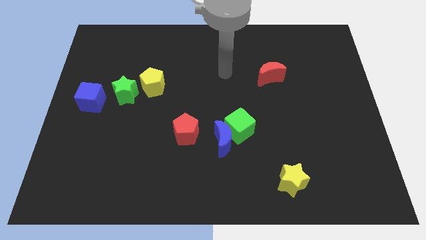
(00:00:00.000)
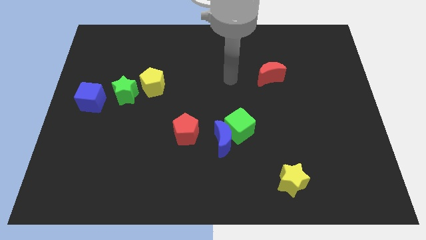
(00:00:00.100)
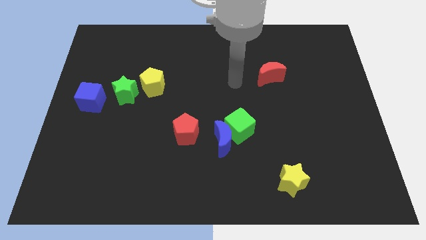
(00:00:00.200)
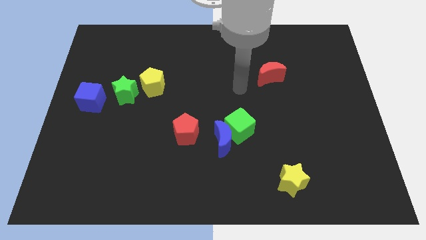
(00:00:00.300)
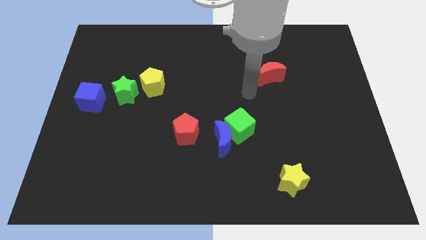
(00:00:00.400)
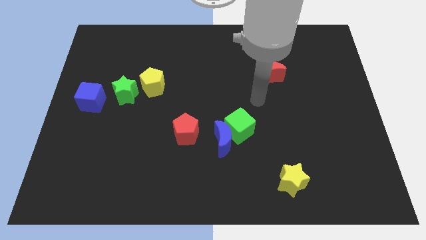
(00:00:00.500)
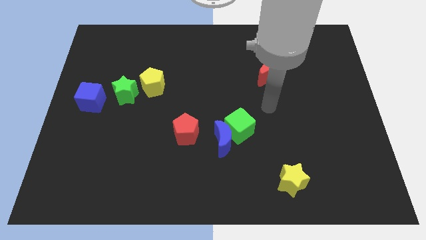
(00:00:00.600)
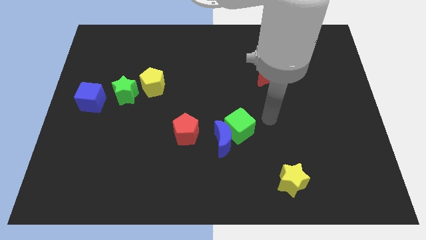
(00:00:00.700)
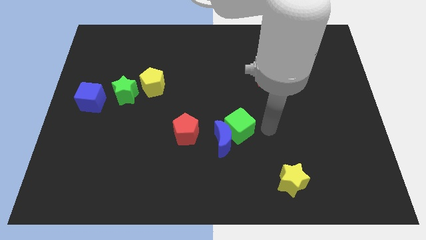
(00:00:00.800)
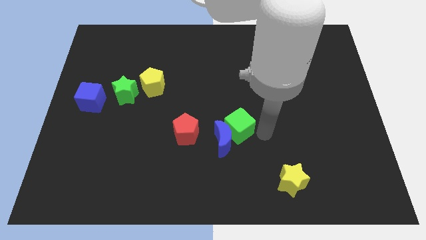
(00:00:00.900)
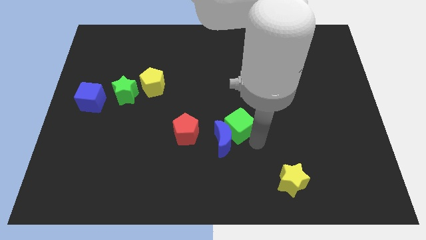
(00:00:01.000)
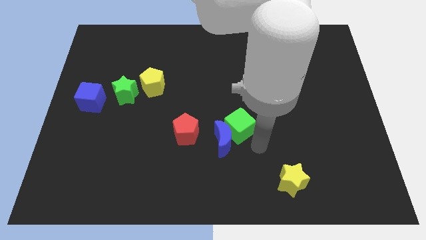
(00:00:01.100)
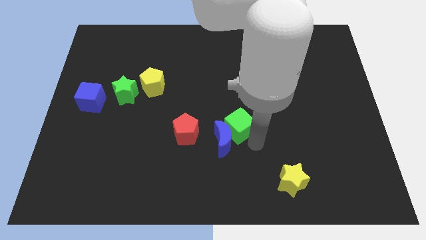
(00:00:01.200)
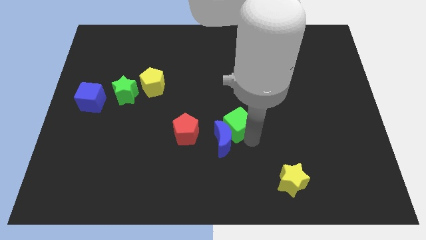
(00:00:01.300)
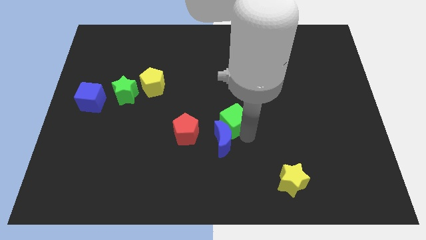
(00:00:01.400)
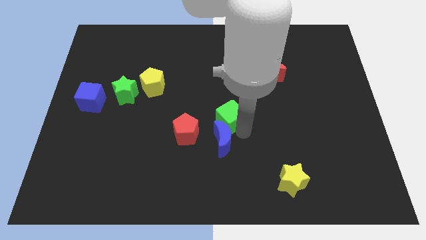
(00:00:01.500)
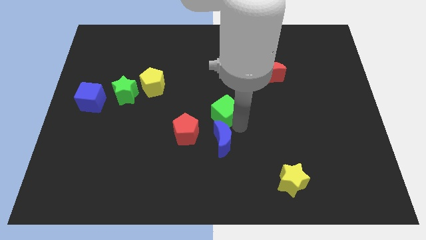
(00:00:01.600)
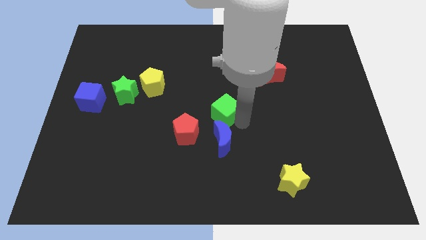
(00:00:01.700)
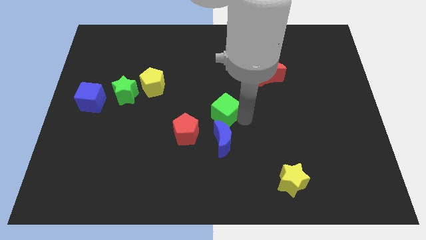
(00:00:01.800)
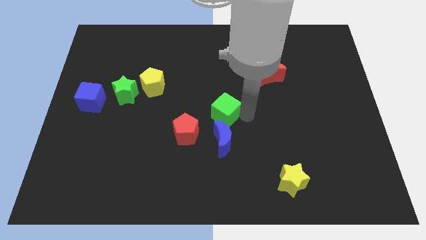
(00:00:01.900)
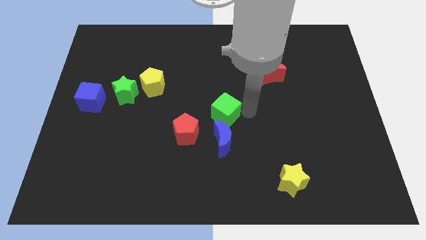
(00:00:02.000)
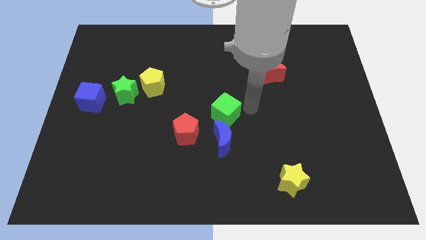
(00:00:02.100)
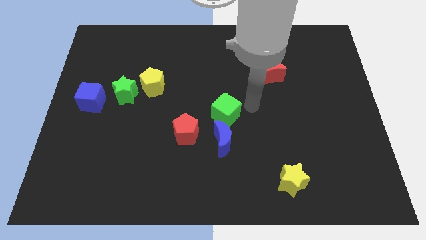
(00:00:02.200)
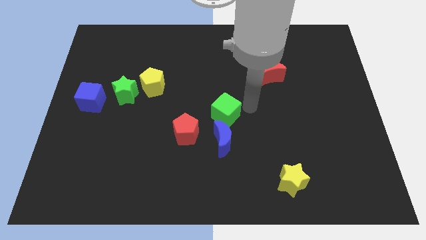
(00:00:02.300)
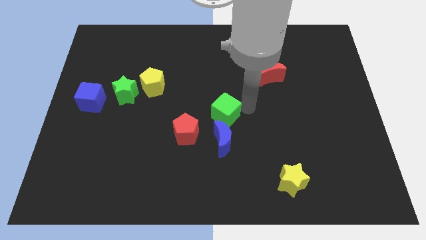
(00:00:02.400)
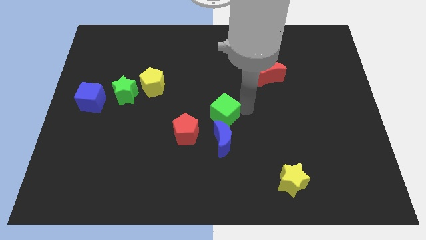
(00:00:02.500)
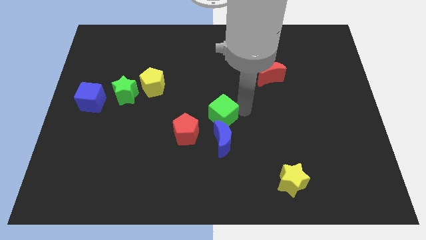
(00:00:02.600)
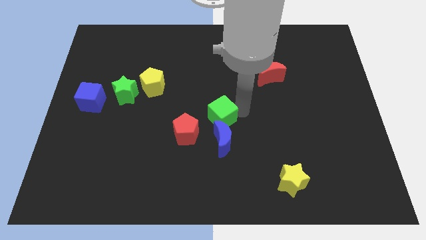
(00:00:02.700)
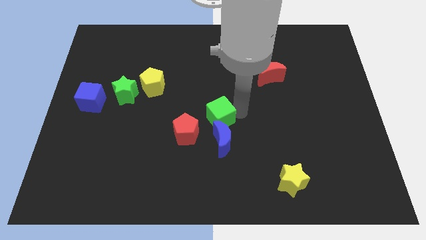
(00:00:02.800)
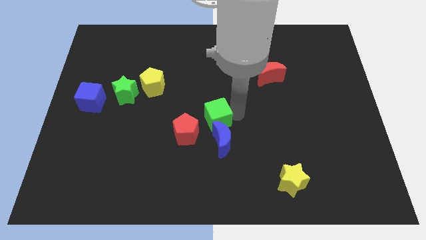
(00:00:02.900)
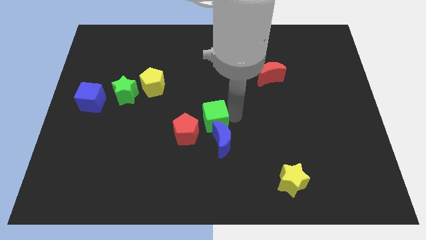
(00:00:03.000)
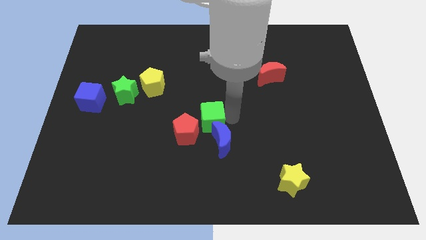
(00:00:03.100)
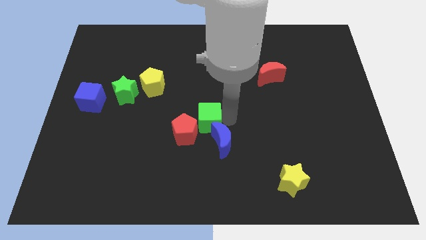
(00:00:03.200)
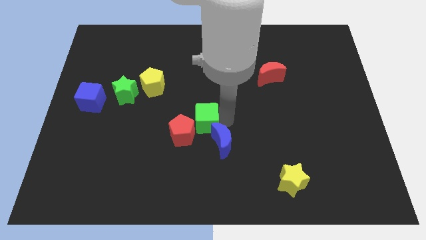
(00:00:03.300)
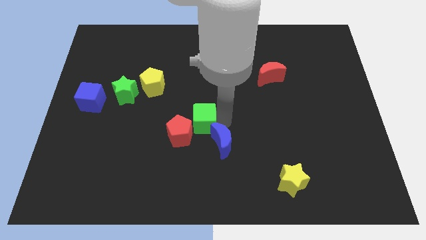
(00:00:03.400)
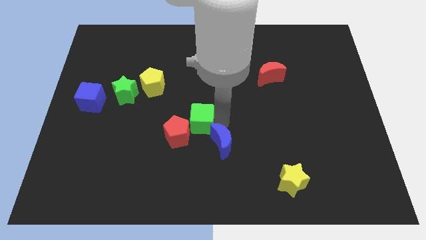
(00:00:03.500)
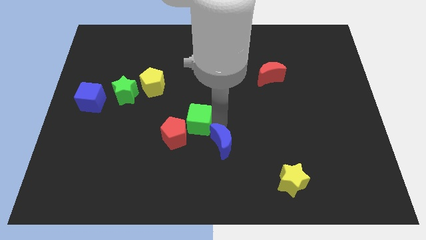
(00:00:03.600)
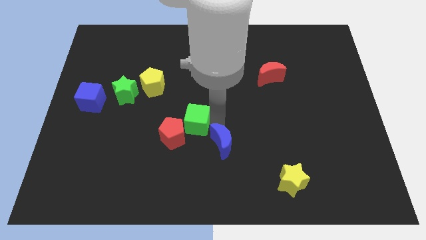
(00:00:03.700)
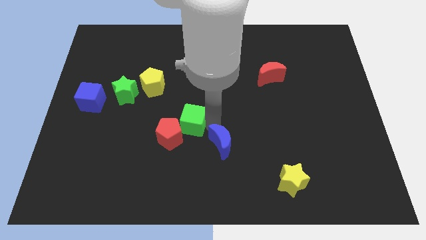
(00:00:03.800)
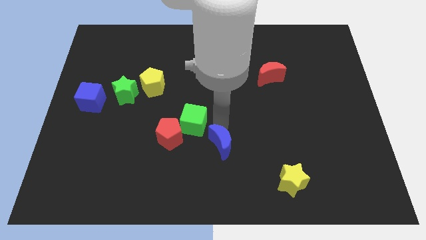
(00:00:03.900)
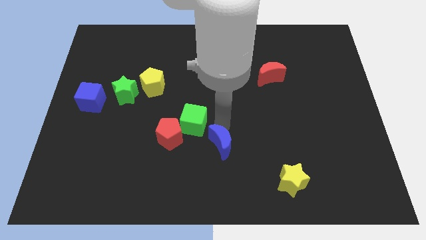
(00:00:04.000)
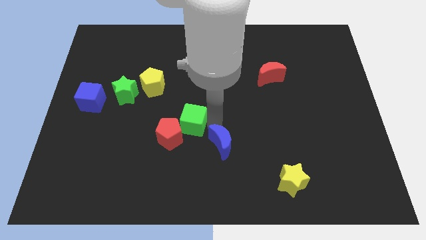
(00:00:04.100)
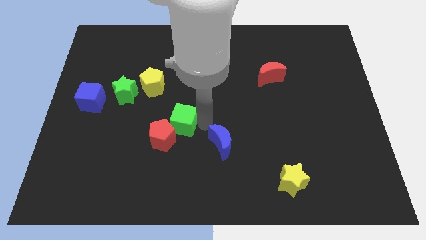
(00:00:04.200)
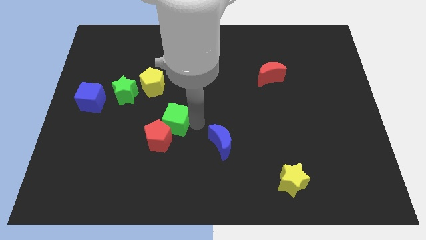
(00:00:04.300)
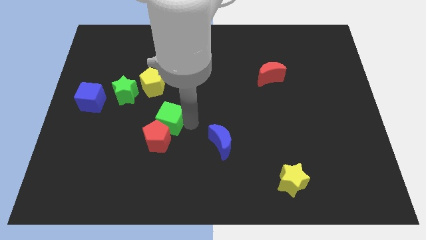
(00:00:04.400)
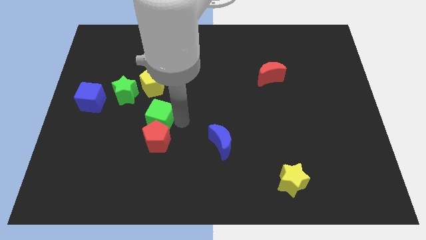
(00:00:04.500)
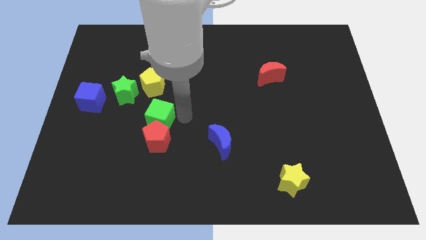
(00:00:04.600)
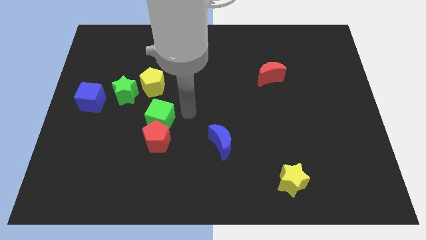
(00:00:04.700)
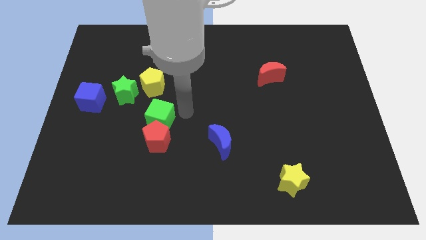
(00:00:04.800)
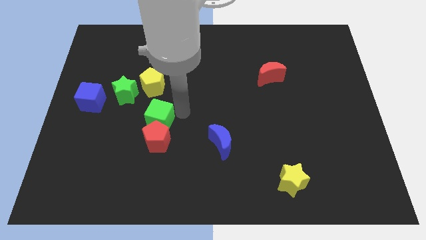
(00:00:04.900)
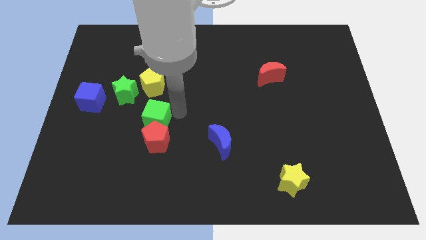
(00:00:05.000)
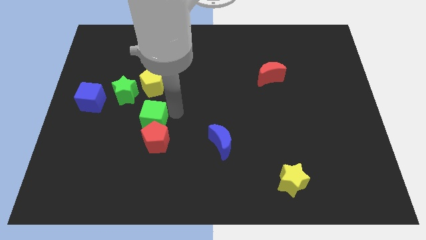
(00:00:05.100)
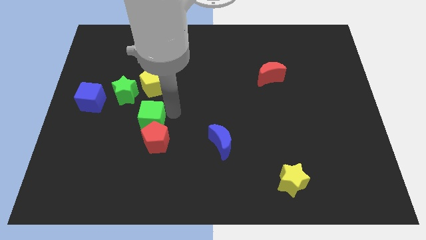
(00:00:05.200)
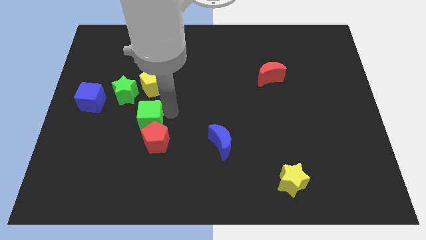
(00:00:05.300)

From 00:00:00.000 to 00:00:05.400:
slide the green cube to the left

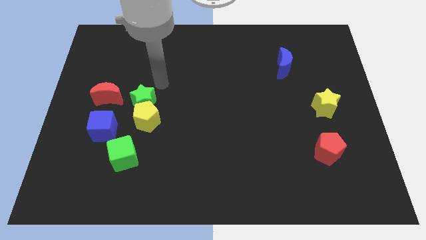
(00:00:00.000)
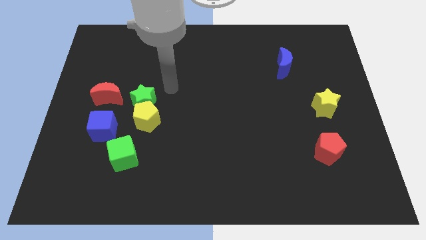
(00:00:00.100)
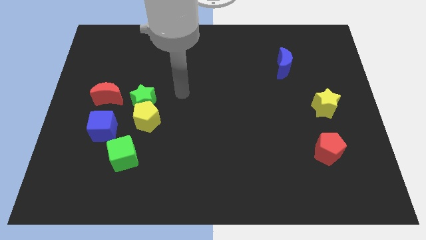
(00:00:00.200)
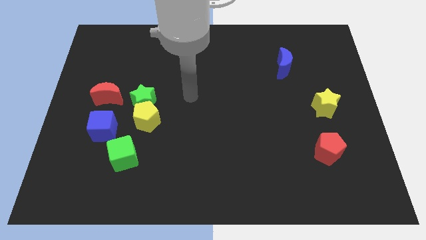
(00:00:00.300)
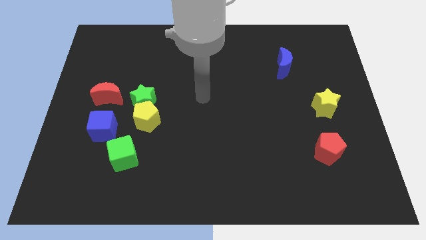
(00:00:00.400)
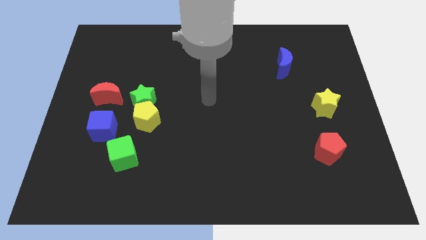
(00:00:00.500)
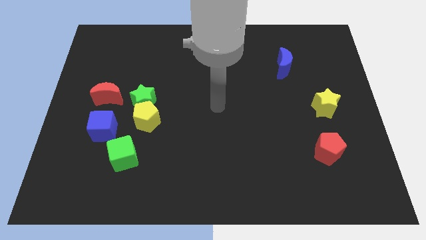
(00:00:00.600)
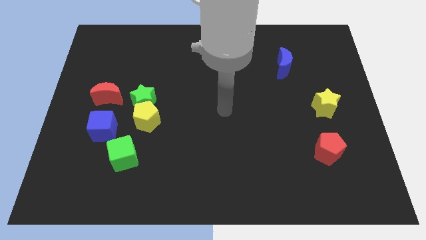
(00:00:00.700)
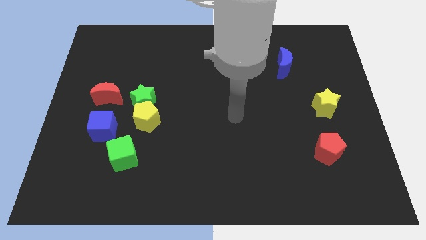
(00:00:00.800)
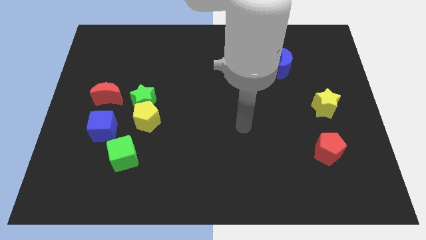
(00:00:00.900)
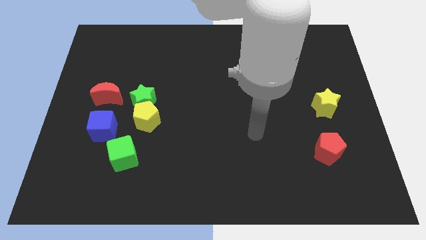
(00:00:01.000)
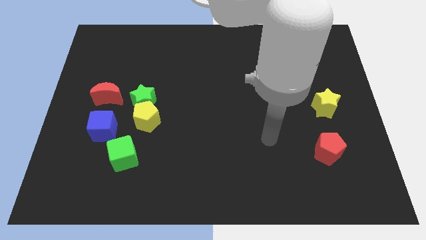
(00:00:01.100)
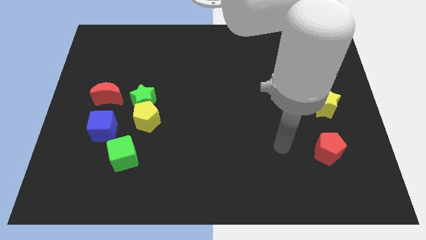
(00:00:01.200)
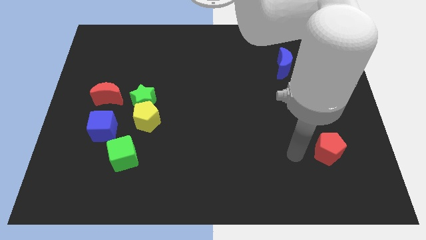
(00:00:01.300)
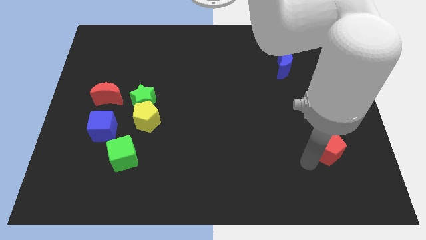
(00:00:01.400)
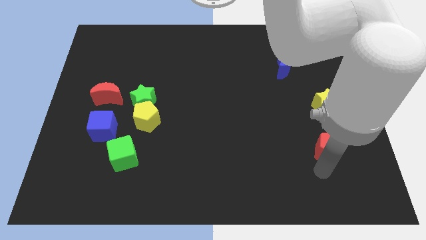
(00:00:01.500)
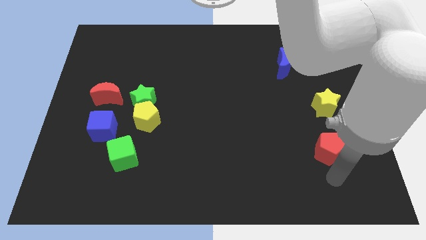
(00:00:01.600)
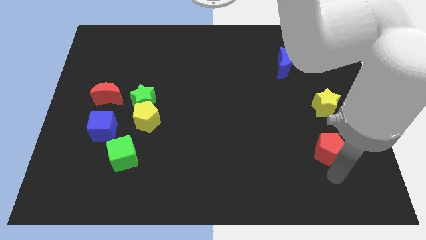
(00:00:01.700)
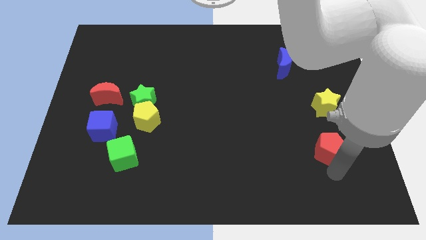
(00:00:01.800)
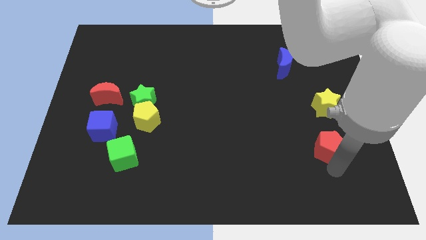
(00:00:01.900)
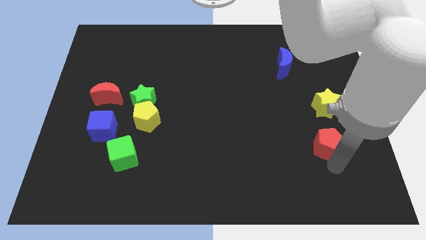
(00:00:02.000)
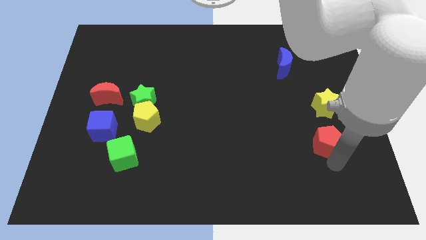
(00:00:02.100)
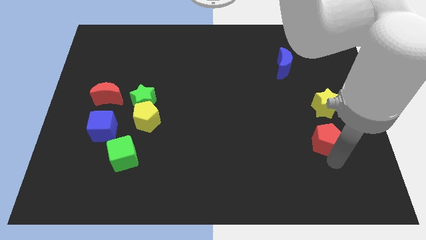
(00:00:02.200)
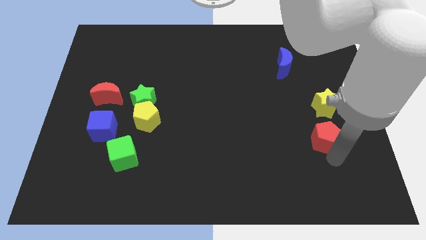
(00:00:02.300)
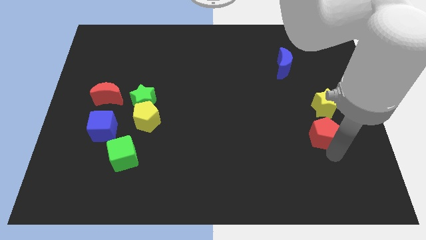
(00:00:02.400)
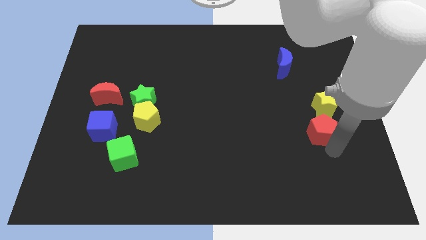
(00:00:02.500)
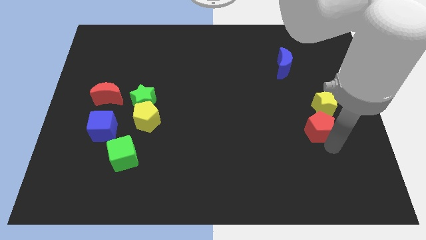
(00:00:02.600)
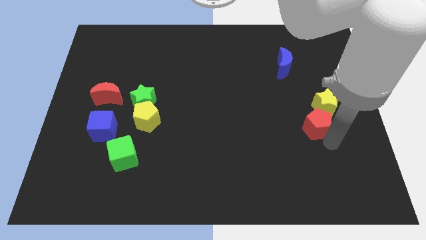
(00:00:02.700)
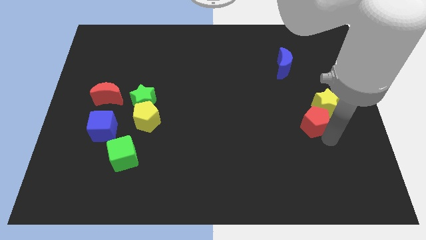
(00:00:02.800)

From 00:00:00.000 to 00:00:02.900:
slightly slide the red pentagon up
